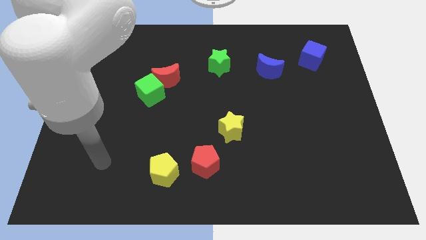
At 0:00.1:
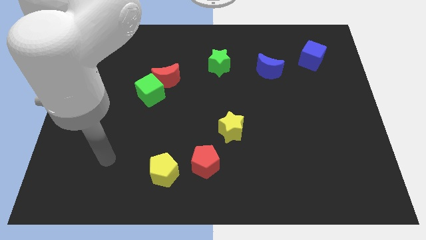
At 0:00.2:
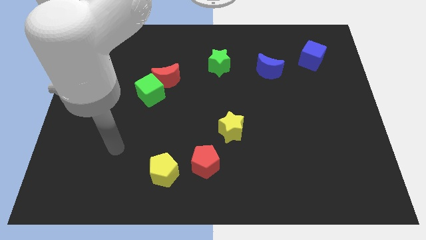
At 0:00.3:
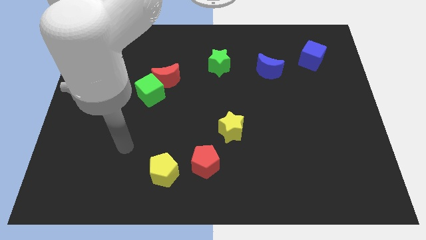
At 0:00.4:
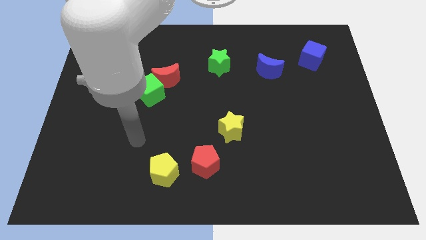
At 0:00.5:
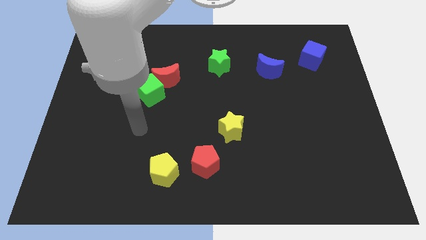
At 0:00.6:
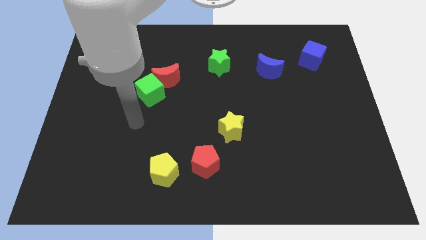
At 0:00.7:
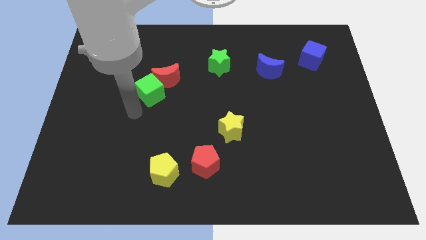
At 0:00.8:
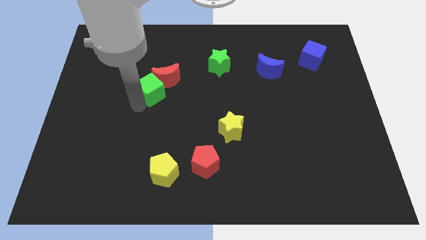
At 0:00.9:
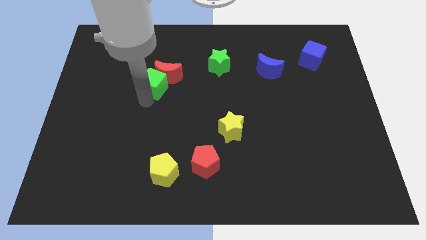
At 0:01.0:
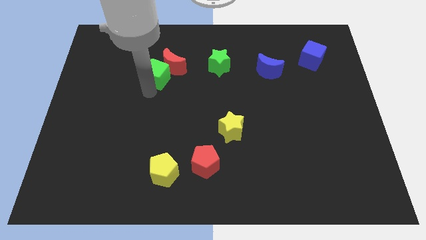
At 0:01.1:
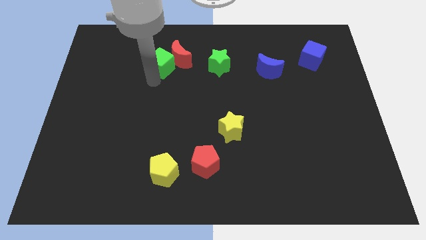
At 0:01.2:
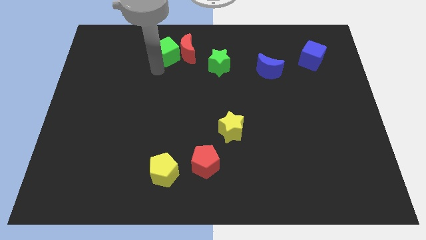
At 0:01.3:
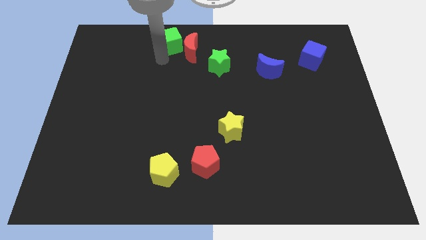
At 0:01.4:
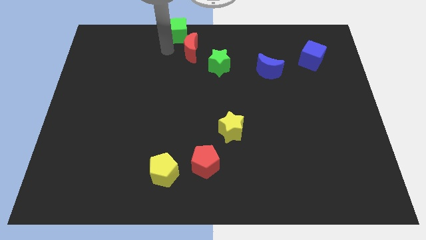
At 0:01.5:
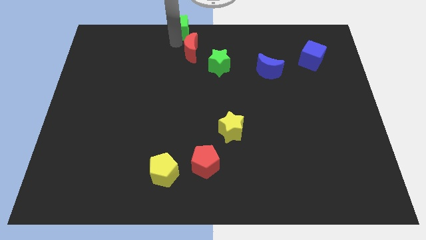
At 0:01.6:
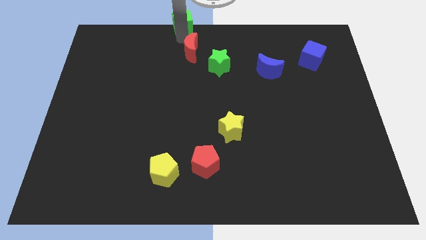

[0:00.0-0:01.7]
separate the red moon from the green cube

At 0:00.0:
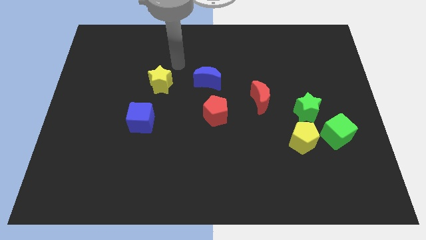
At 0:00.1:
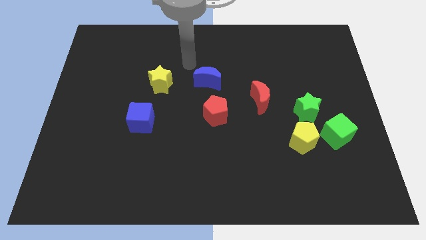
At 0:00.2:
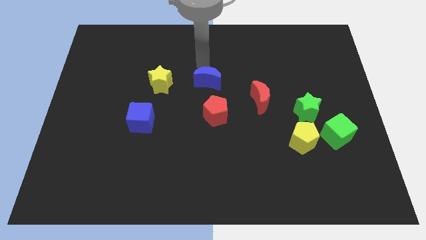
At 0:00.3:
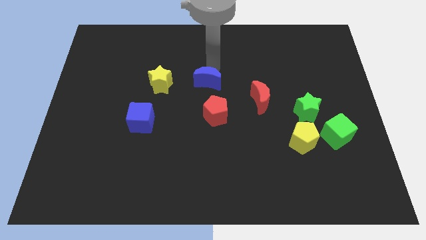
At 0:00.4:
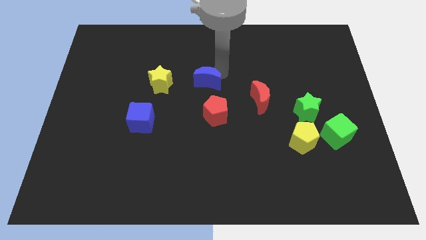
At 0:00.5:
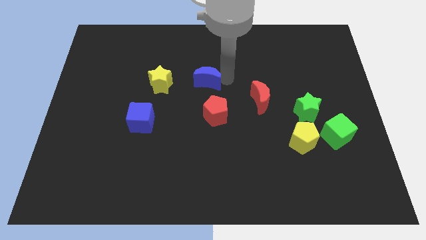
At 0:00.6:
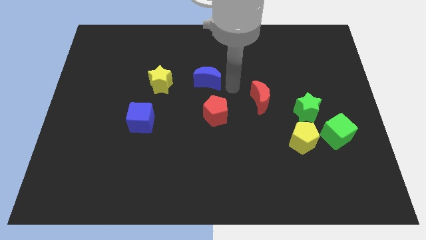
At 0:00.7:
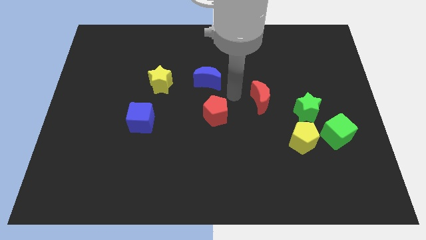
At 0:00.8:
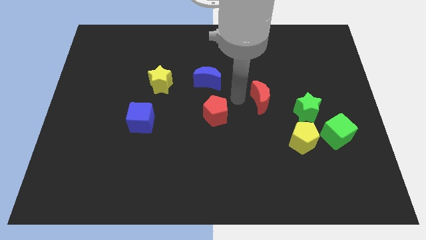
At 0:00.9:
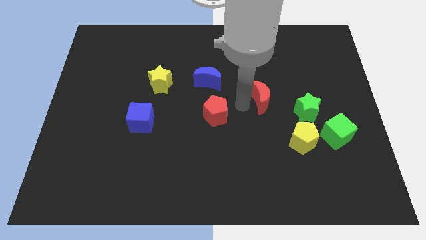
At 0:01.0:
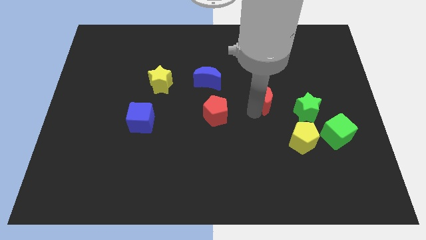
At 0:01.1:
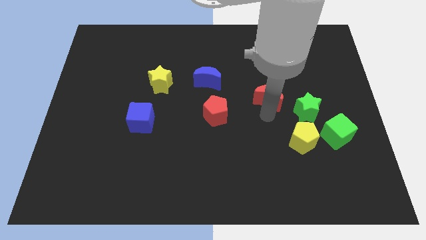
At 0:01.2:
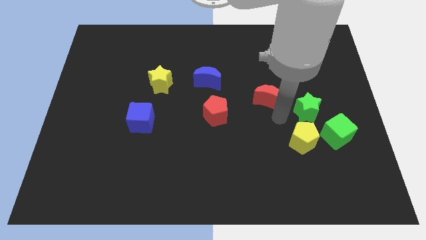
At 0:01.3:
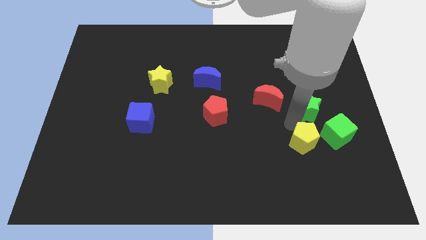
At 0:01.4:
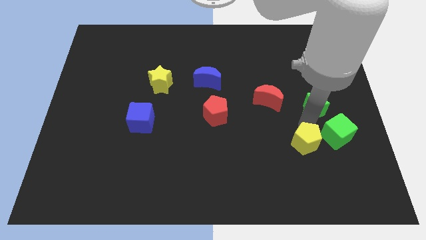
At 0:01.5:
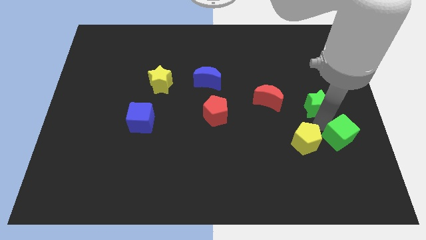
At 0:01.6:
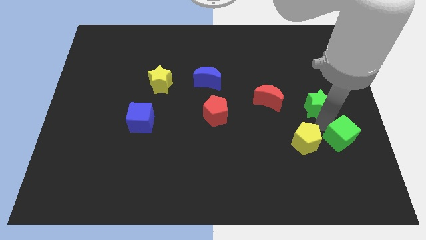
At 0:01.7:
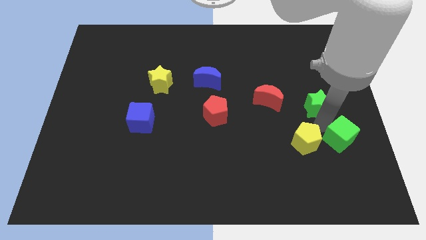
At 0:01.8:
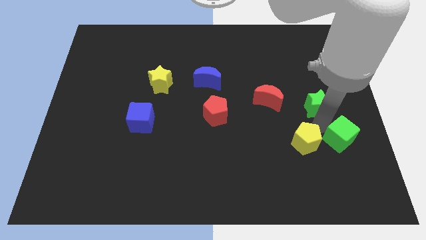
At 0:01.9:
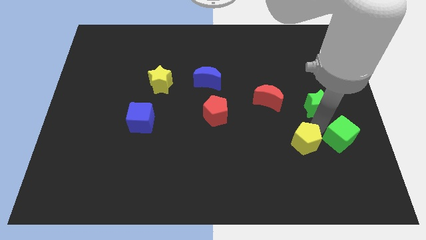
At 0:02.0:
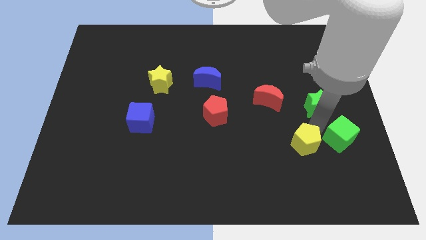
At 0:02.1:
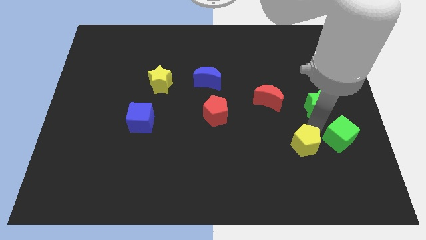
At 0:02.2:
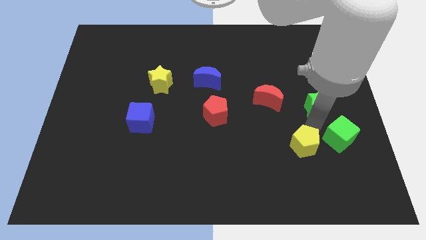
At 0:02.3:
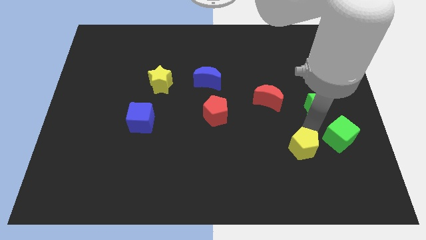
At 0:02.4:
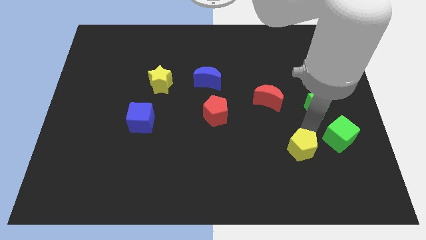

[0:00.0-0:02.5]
move the yellow pentagon away from the green cube and green star

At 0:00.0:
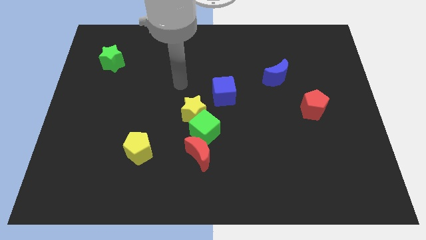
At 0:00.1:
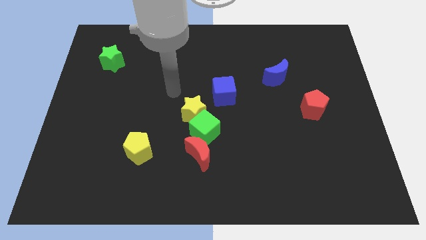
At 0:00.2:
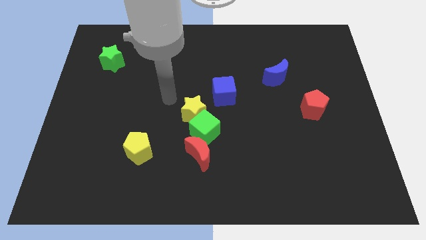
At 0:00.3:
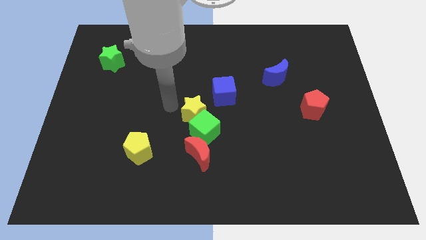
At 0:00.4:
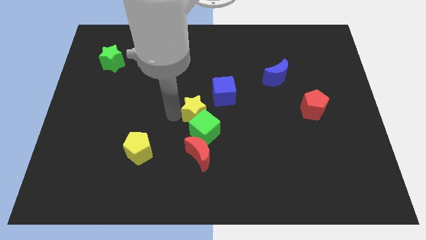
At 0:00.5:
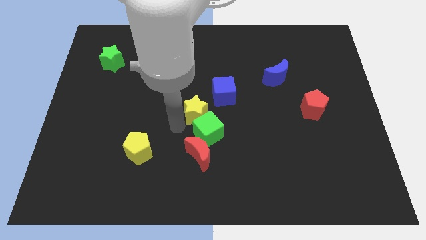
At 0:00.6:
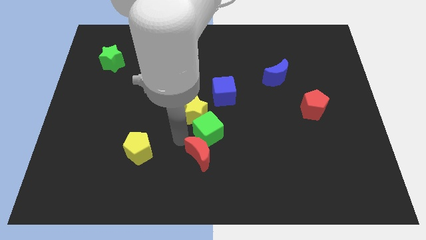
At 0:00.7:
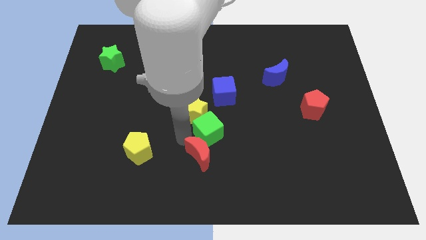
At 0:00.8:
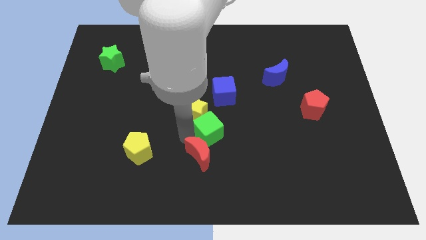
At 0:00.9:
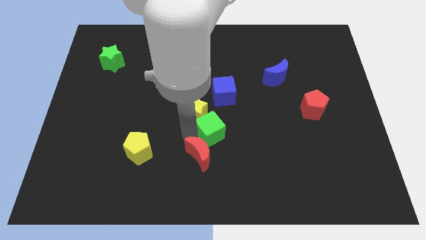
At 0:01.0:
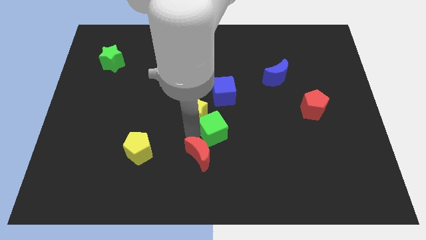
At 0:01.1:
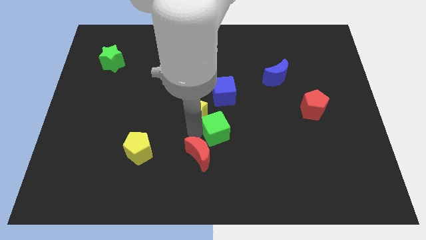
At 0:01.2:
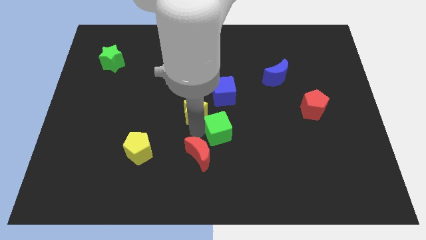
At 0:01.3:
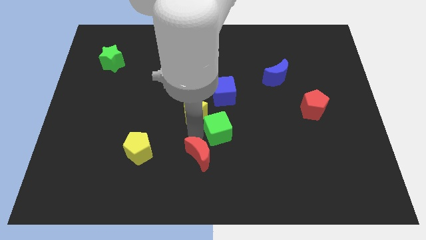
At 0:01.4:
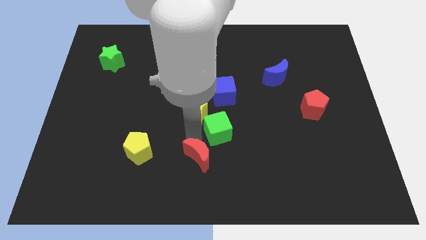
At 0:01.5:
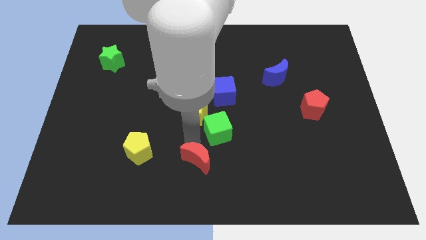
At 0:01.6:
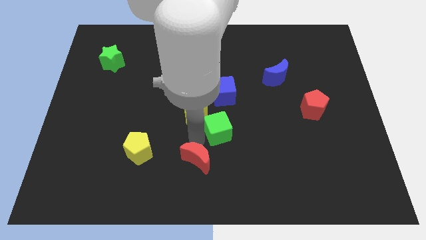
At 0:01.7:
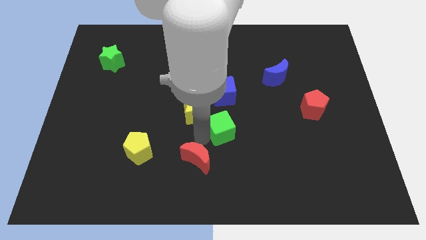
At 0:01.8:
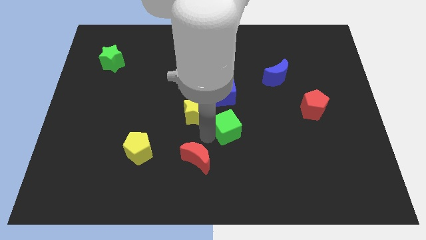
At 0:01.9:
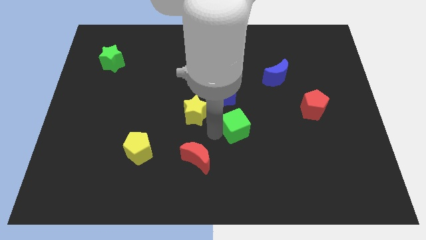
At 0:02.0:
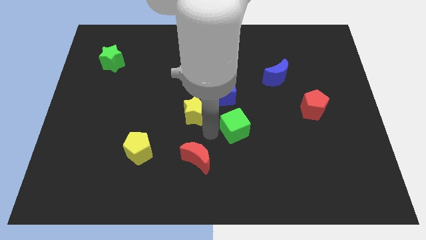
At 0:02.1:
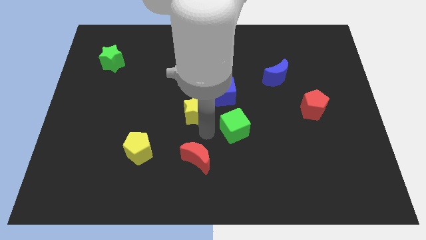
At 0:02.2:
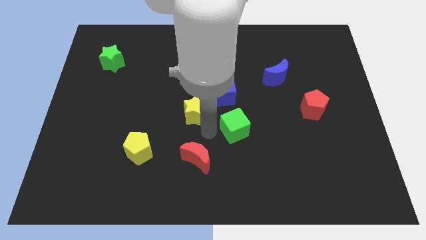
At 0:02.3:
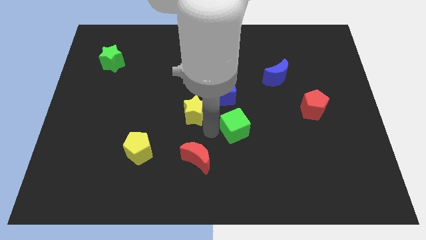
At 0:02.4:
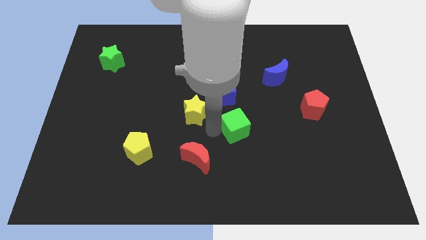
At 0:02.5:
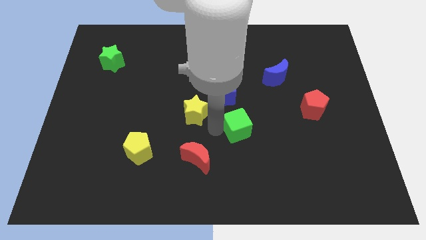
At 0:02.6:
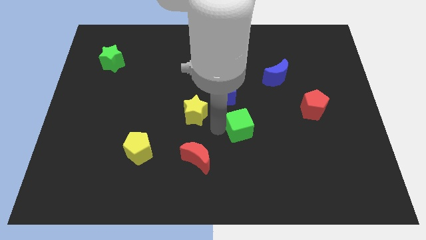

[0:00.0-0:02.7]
separate the green cube from the yellow star and red moon

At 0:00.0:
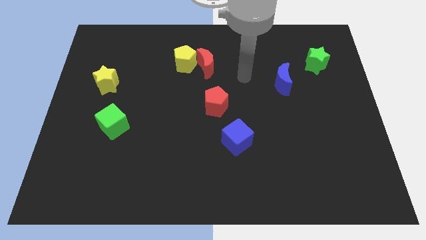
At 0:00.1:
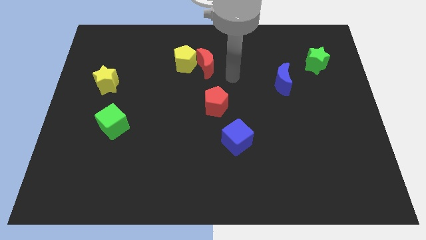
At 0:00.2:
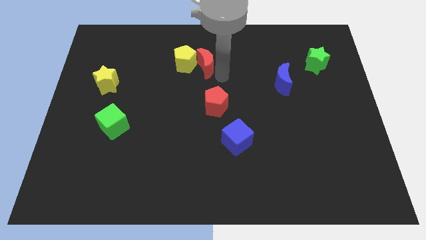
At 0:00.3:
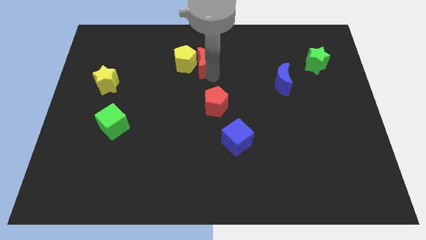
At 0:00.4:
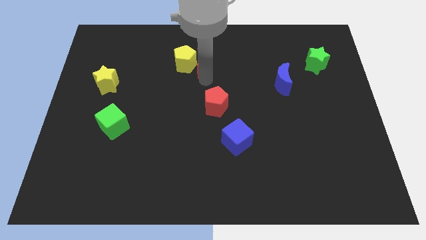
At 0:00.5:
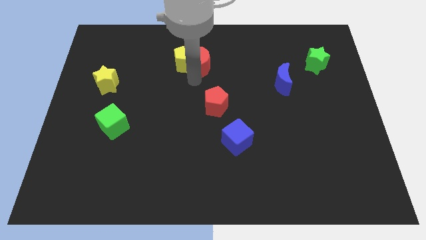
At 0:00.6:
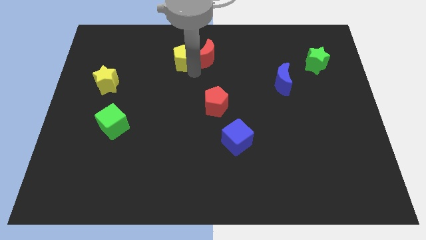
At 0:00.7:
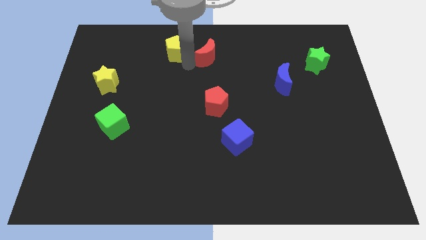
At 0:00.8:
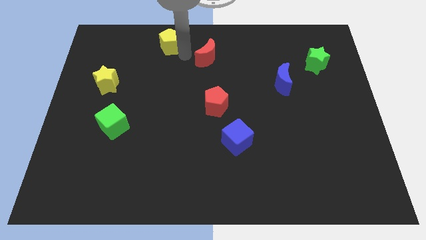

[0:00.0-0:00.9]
pull the red moon apart from the yellow pentagon

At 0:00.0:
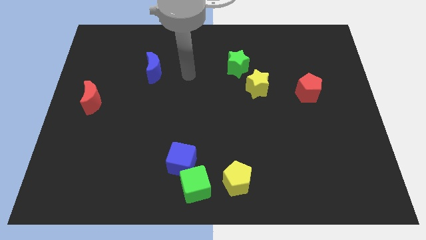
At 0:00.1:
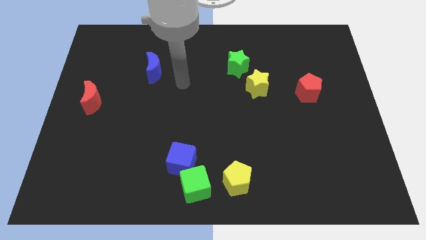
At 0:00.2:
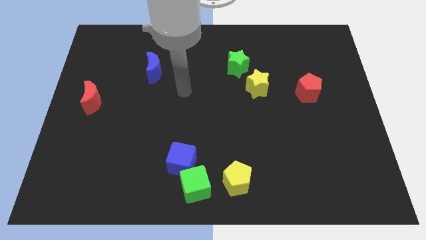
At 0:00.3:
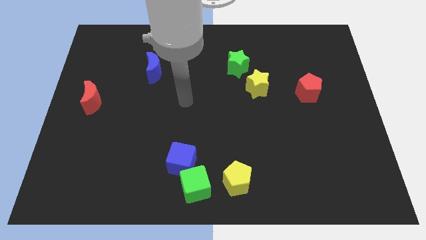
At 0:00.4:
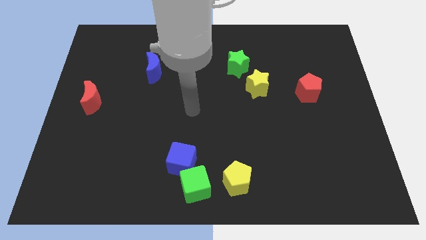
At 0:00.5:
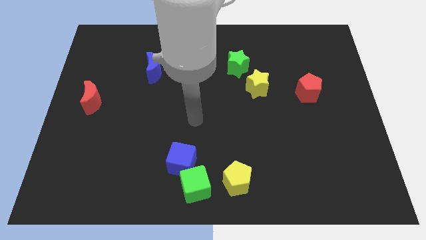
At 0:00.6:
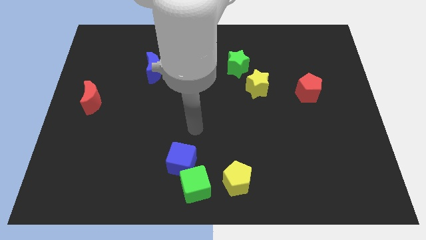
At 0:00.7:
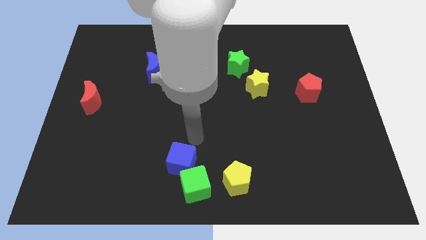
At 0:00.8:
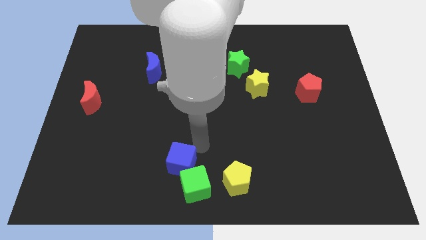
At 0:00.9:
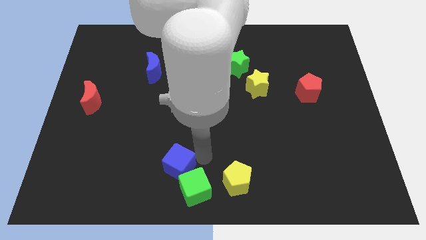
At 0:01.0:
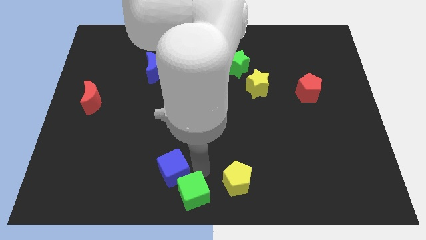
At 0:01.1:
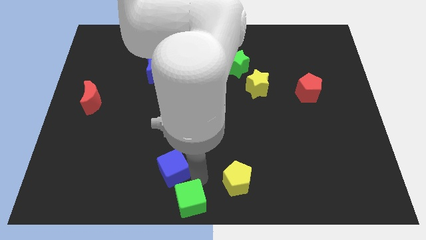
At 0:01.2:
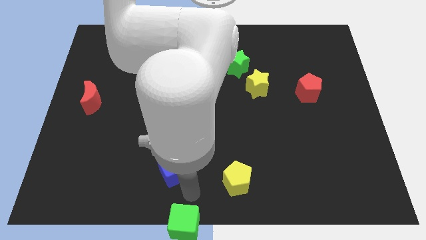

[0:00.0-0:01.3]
pull the blue cube apart from the green cube
